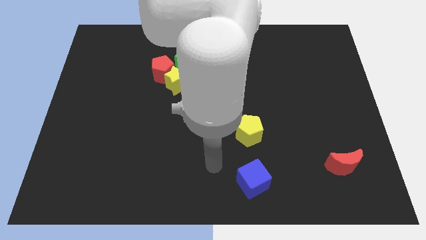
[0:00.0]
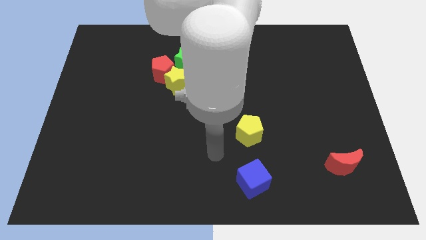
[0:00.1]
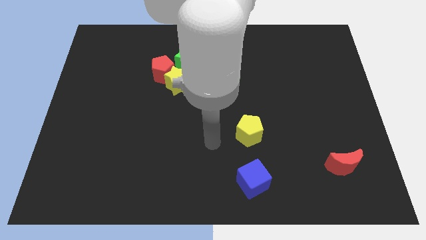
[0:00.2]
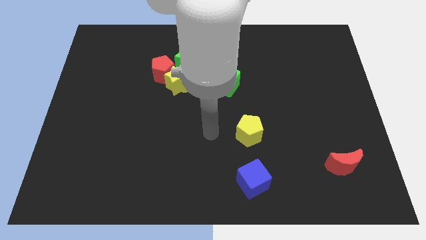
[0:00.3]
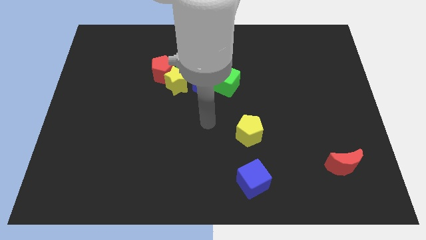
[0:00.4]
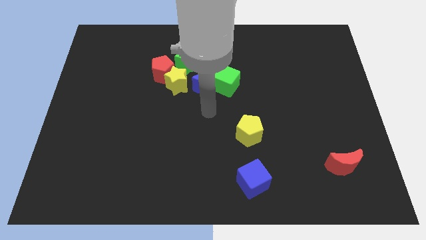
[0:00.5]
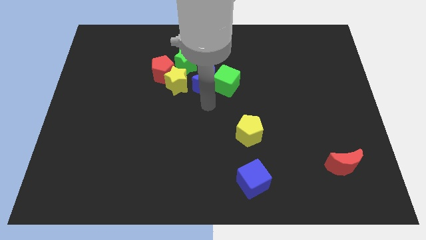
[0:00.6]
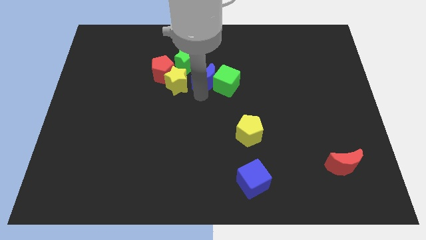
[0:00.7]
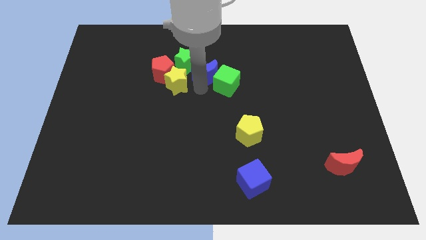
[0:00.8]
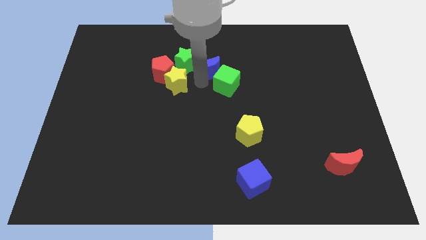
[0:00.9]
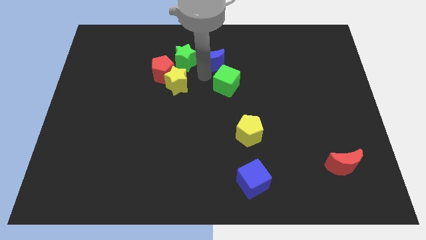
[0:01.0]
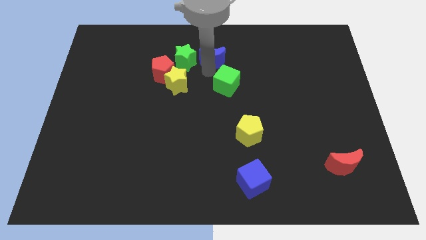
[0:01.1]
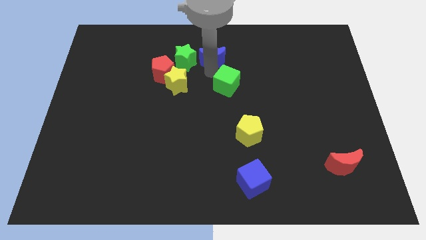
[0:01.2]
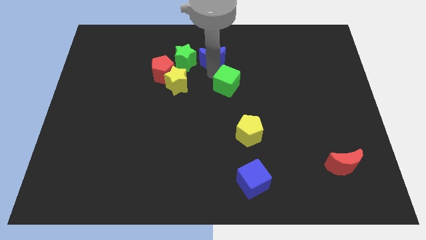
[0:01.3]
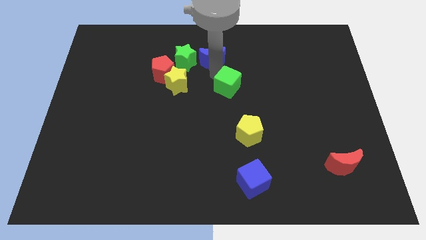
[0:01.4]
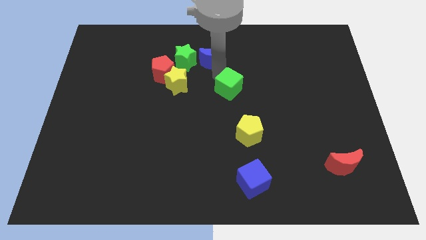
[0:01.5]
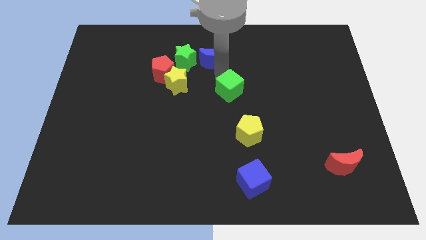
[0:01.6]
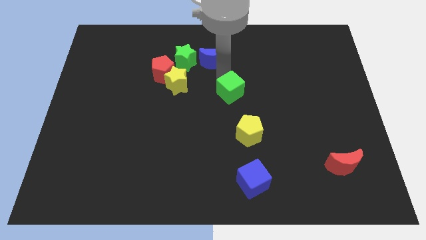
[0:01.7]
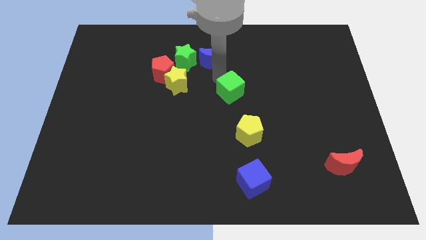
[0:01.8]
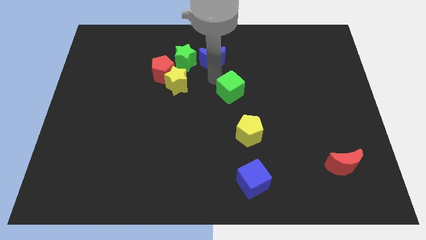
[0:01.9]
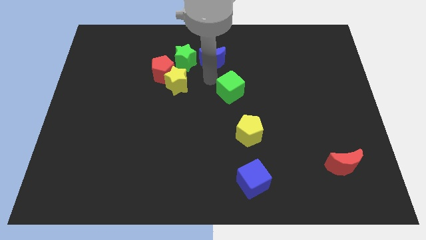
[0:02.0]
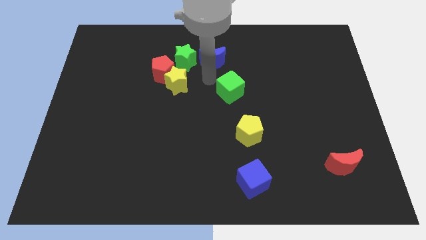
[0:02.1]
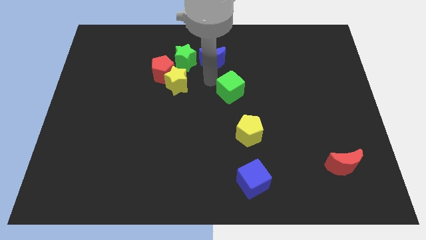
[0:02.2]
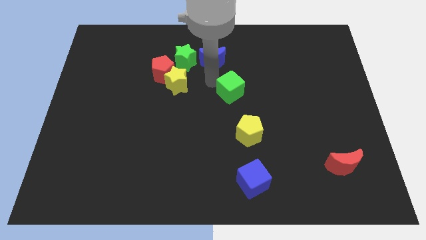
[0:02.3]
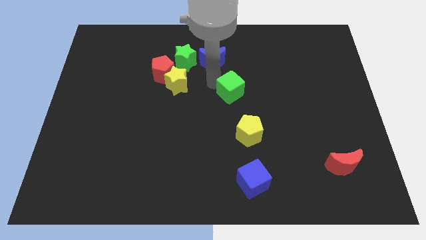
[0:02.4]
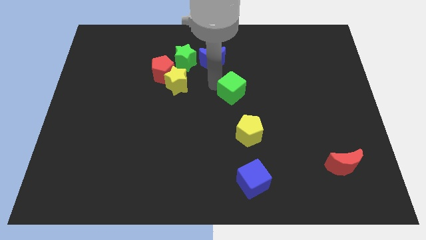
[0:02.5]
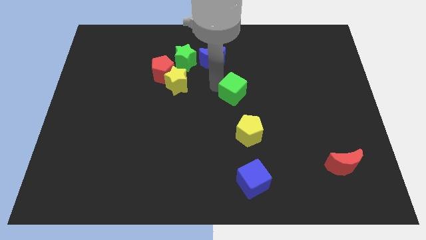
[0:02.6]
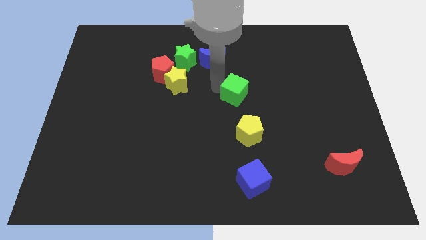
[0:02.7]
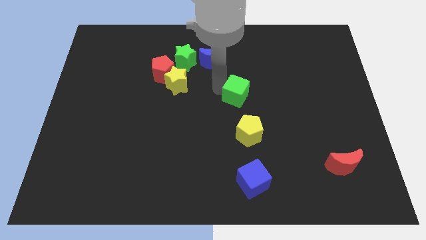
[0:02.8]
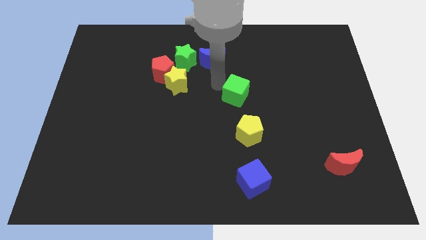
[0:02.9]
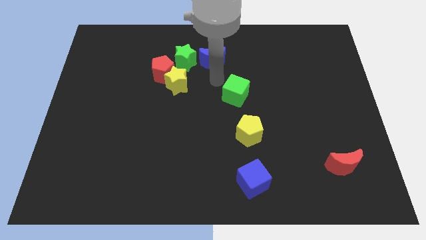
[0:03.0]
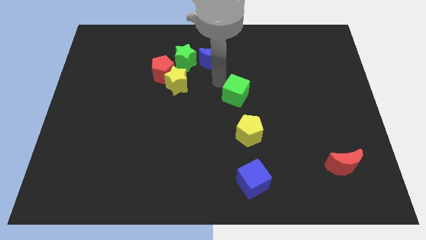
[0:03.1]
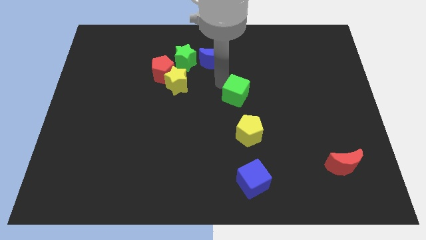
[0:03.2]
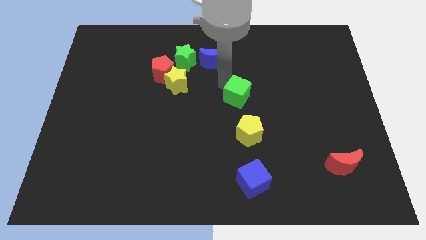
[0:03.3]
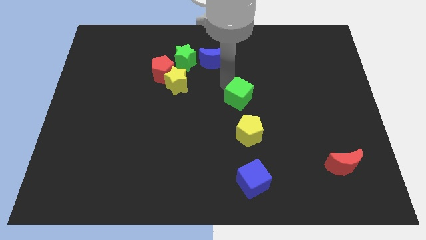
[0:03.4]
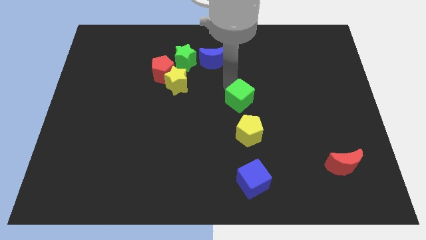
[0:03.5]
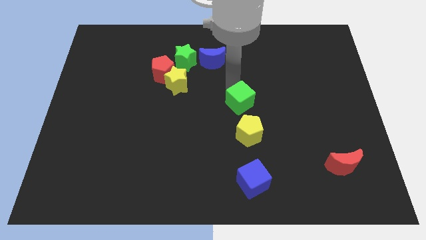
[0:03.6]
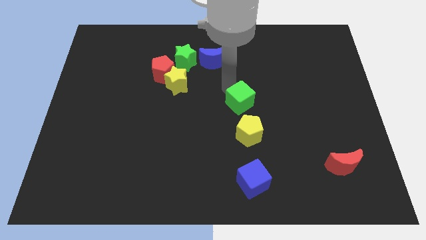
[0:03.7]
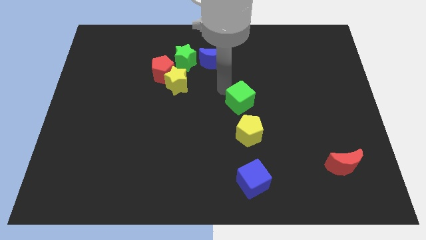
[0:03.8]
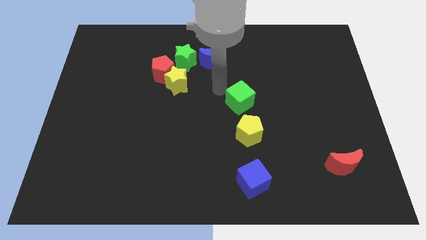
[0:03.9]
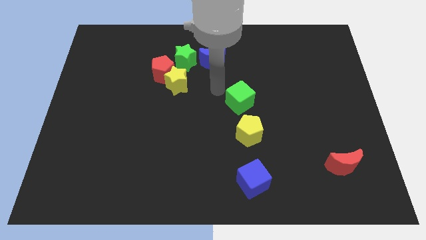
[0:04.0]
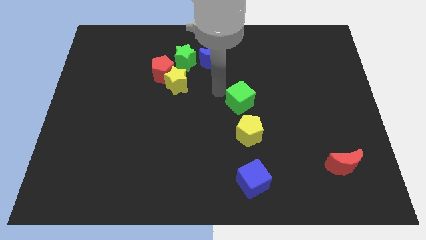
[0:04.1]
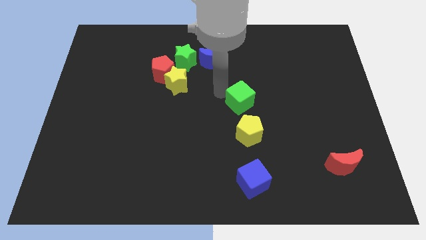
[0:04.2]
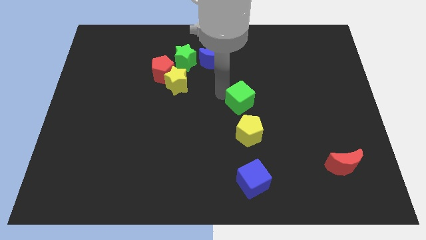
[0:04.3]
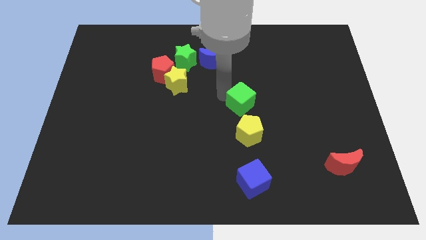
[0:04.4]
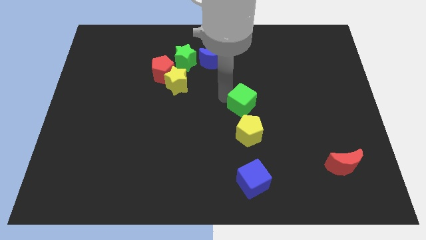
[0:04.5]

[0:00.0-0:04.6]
slightly push the green cube diagonally down and right

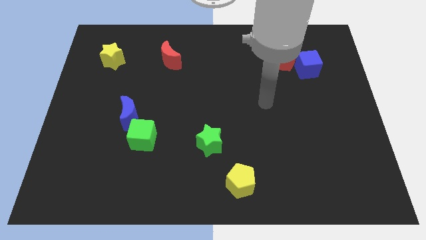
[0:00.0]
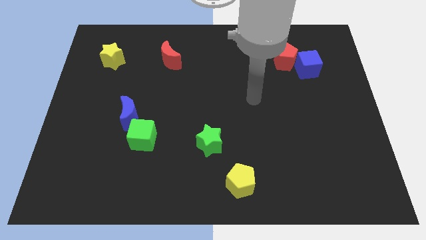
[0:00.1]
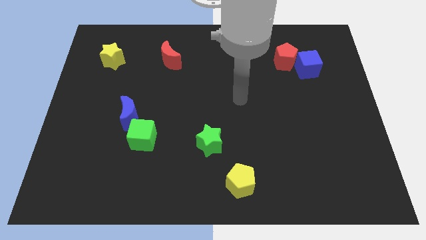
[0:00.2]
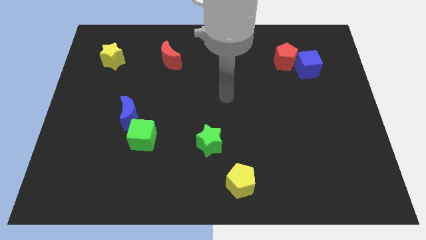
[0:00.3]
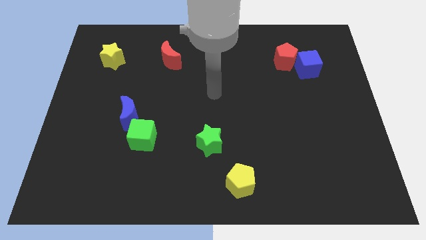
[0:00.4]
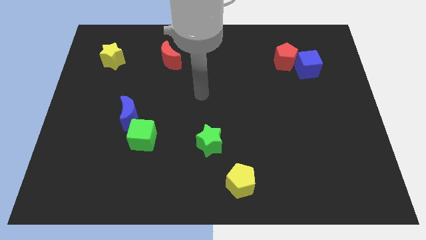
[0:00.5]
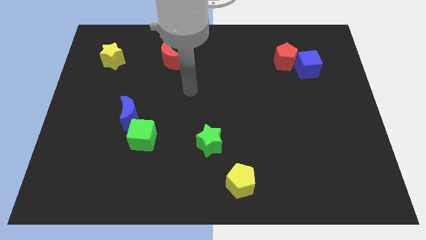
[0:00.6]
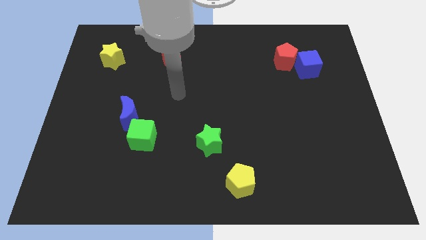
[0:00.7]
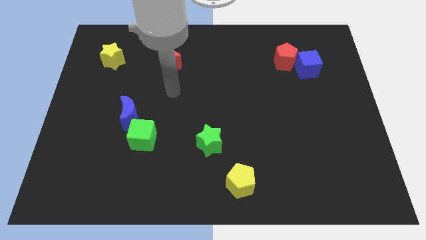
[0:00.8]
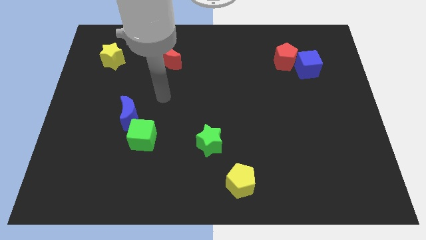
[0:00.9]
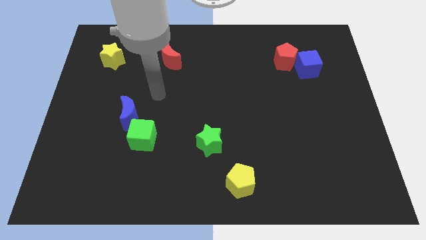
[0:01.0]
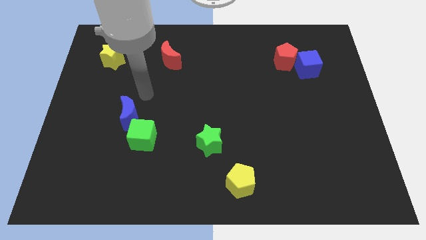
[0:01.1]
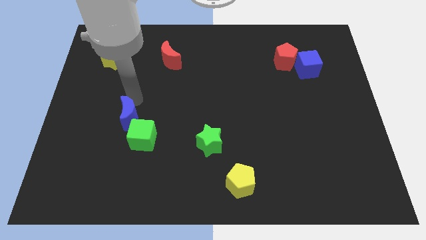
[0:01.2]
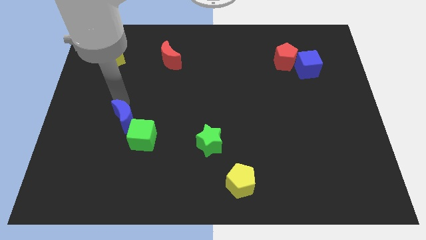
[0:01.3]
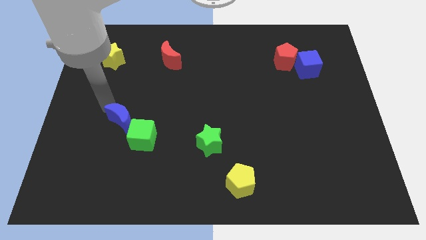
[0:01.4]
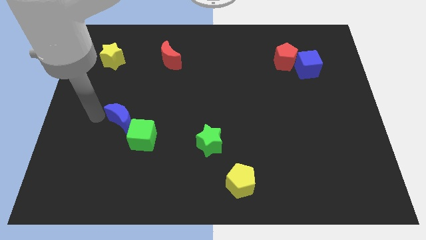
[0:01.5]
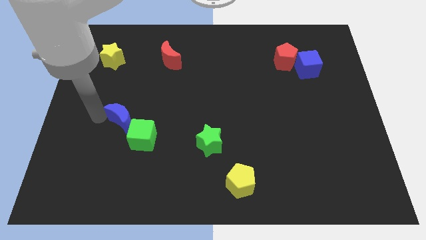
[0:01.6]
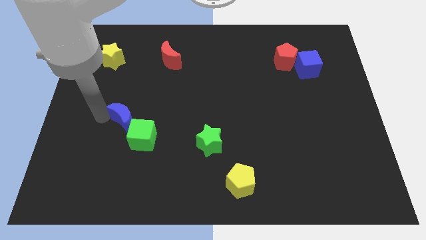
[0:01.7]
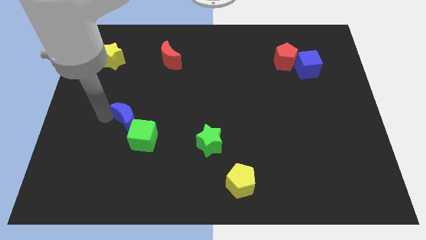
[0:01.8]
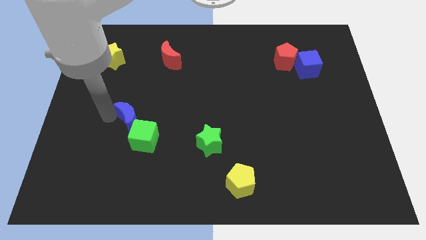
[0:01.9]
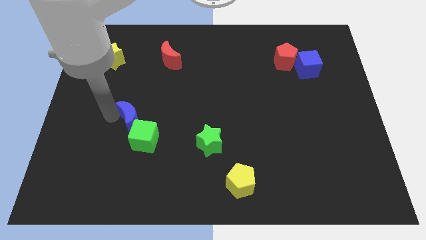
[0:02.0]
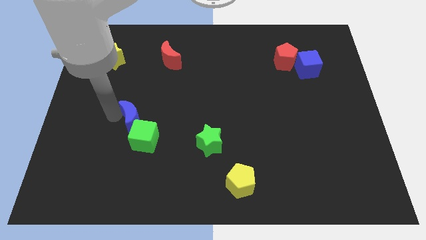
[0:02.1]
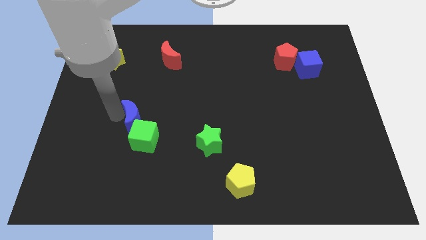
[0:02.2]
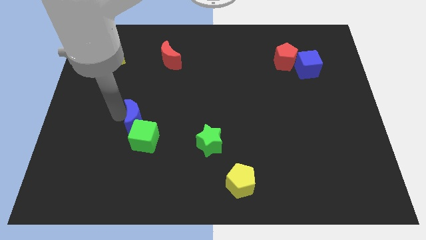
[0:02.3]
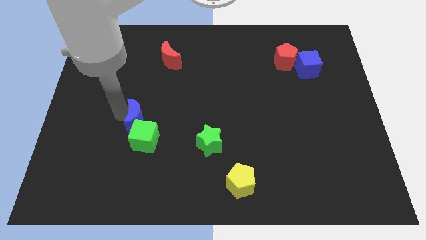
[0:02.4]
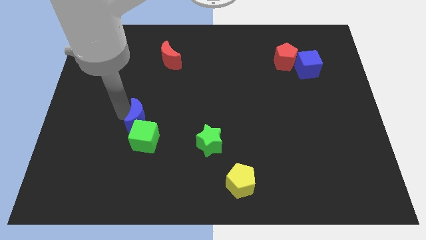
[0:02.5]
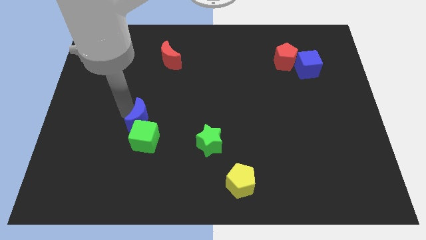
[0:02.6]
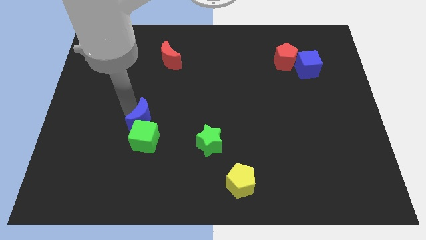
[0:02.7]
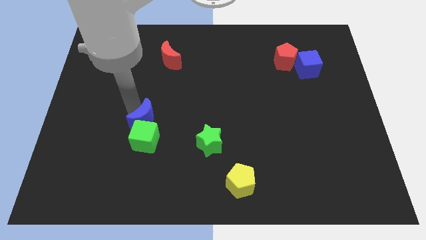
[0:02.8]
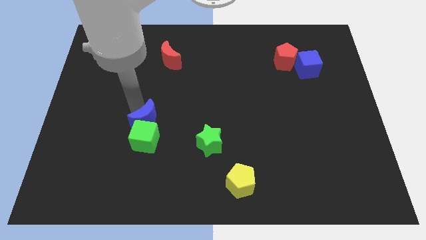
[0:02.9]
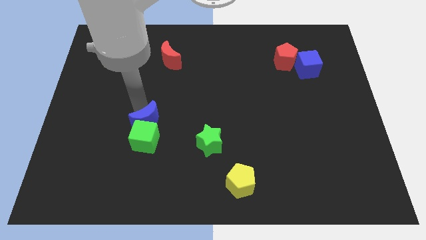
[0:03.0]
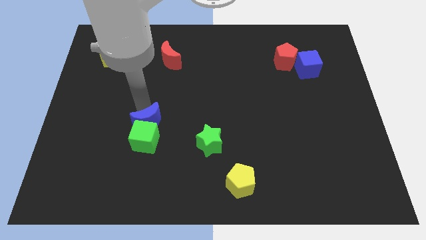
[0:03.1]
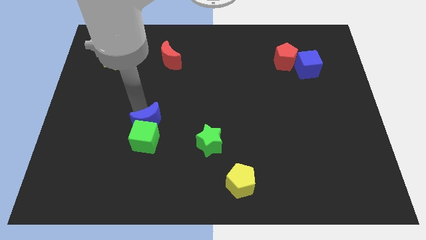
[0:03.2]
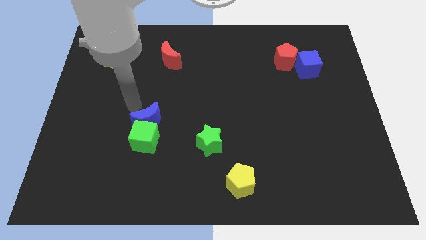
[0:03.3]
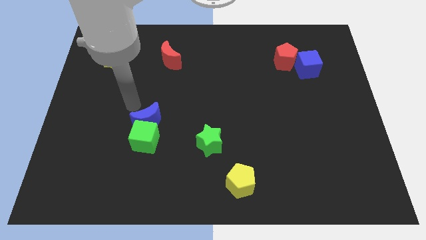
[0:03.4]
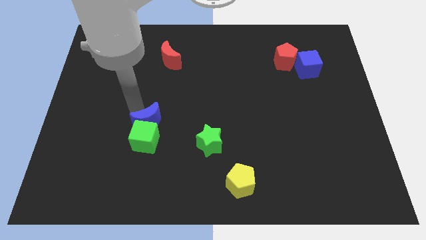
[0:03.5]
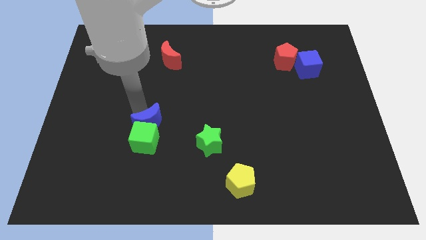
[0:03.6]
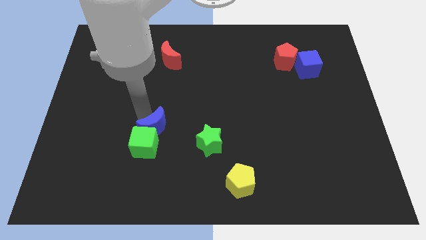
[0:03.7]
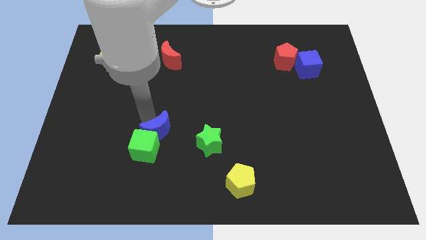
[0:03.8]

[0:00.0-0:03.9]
slightly push the blue moon down and to the right diagonally
